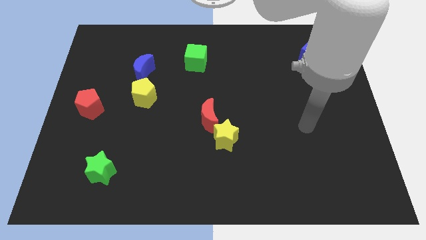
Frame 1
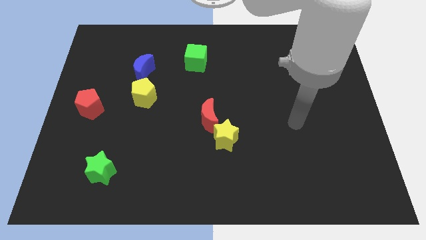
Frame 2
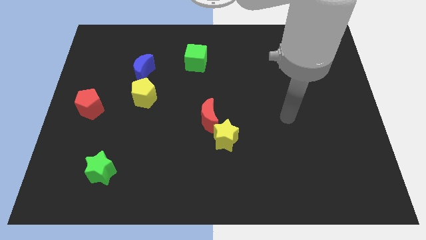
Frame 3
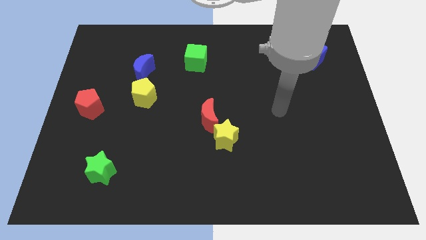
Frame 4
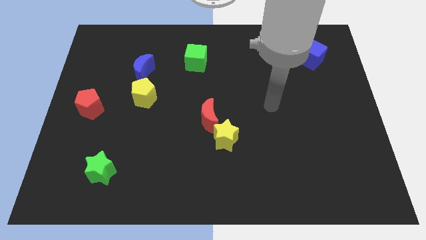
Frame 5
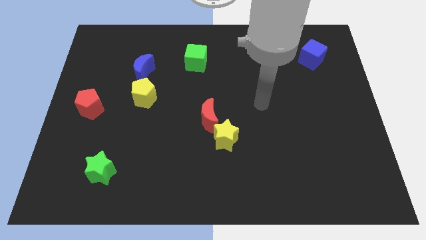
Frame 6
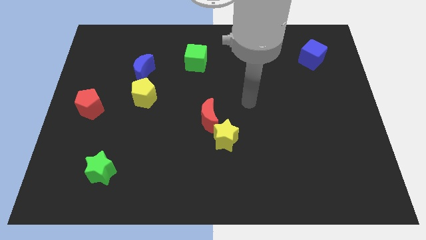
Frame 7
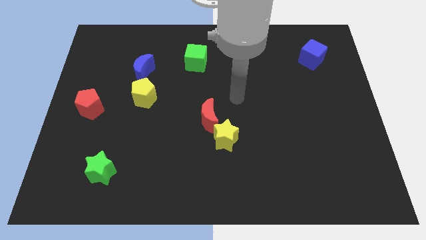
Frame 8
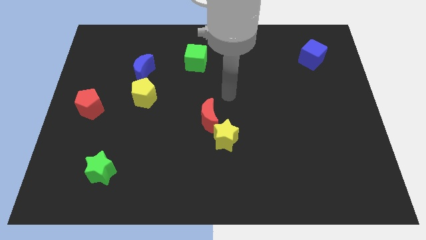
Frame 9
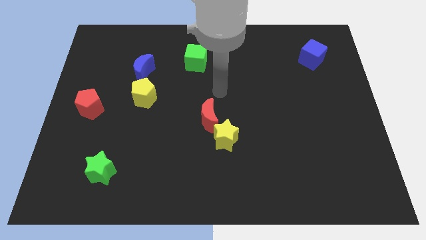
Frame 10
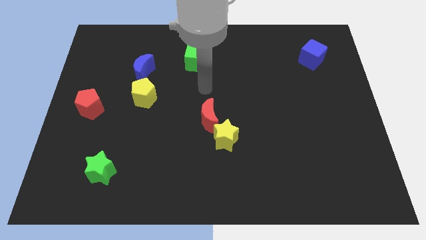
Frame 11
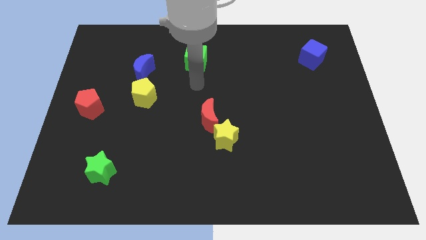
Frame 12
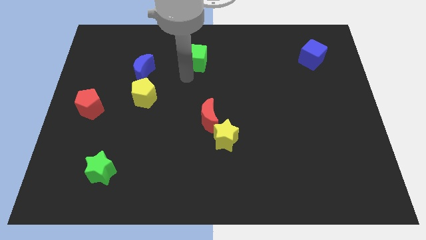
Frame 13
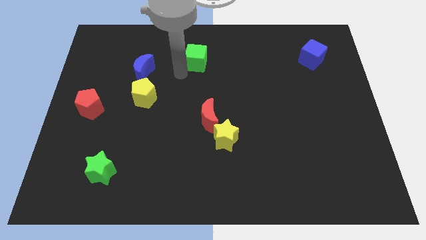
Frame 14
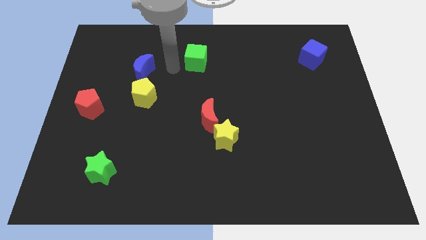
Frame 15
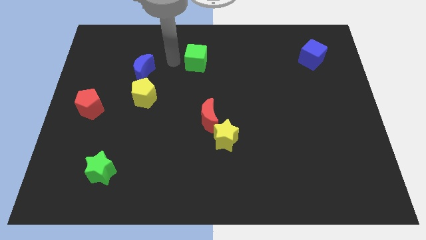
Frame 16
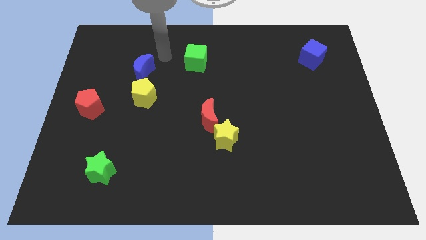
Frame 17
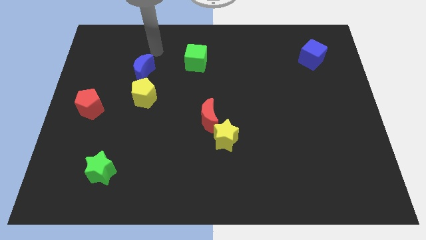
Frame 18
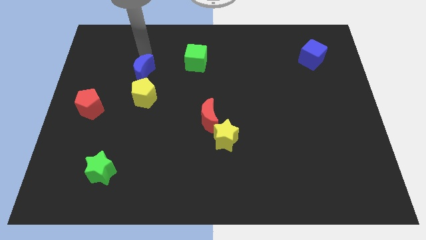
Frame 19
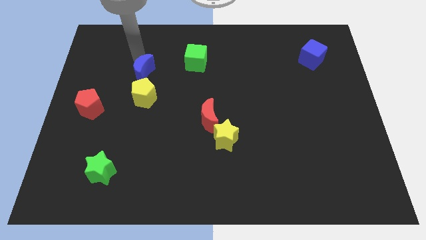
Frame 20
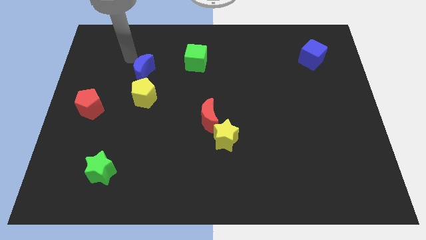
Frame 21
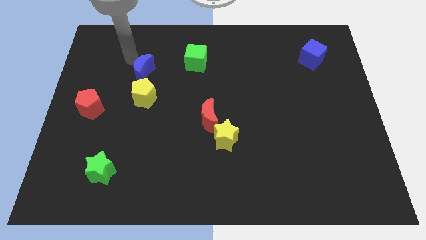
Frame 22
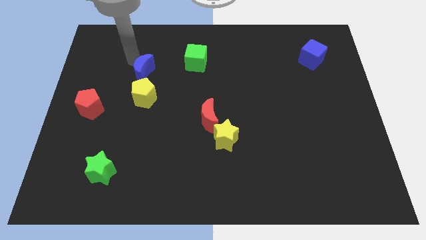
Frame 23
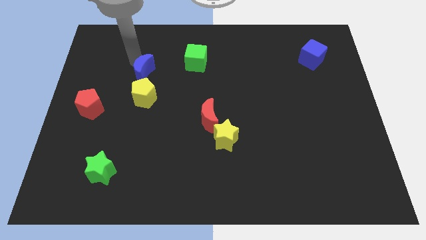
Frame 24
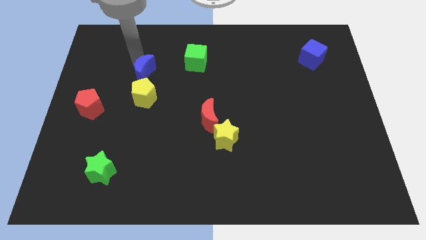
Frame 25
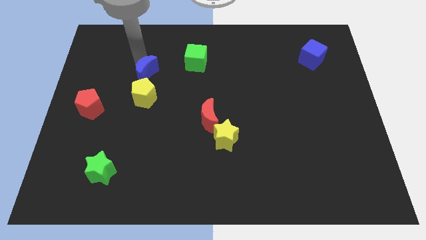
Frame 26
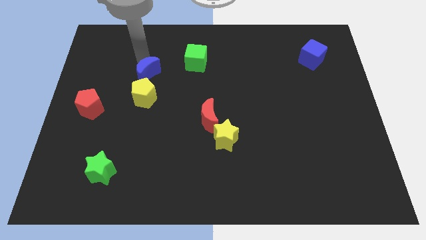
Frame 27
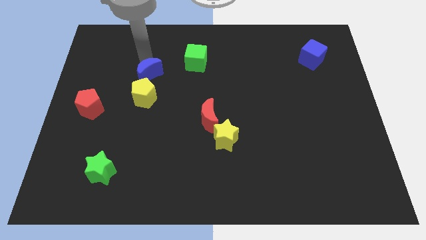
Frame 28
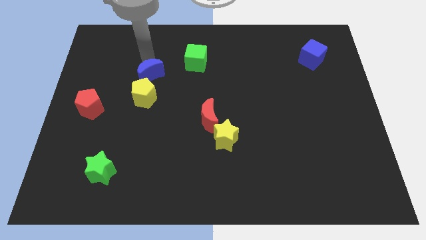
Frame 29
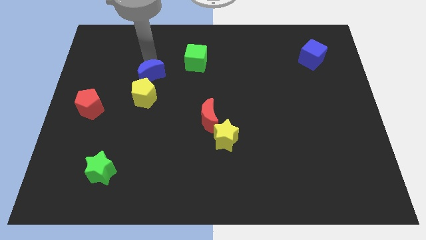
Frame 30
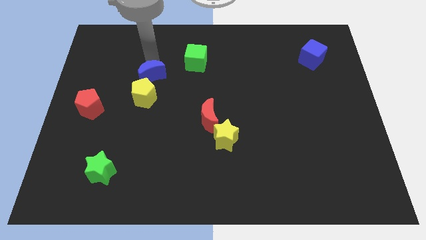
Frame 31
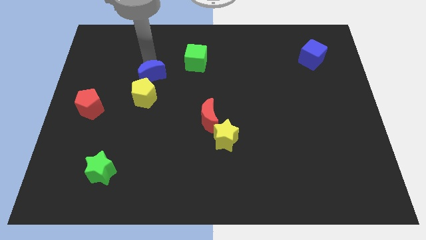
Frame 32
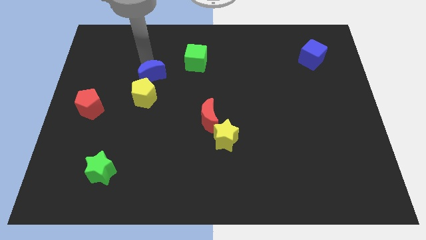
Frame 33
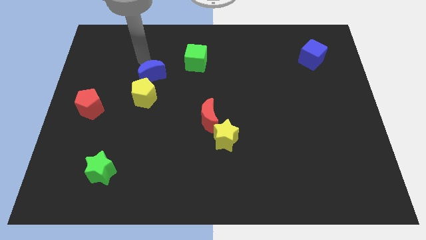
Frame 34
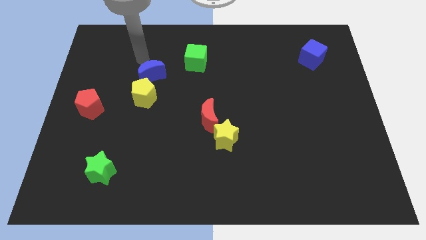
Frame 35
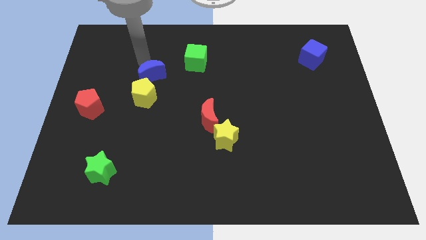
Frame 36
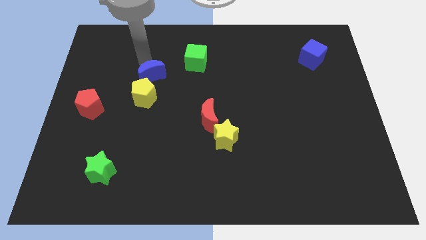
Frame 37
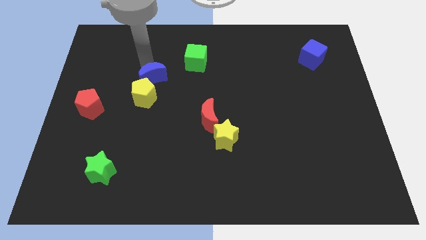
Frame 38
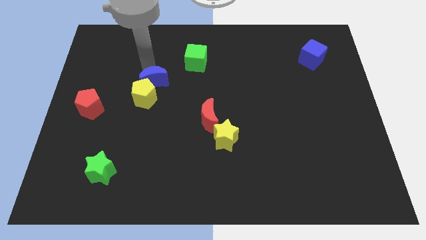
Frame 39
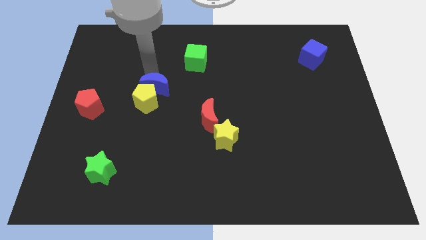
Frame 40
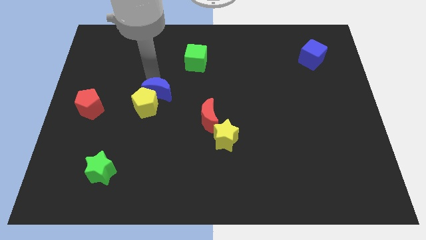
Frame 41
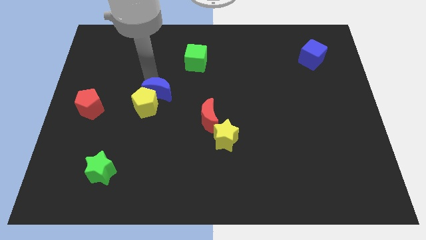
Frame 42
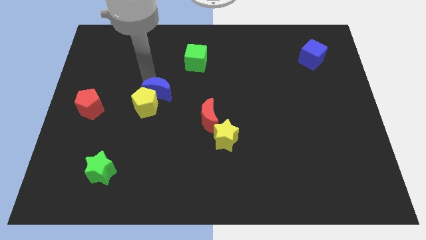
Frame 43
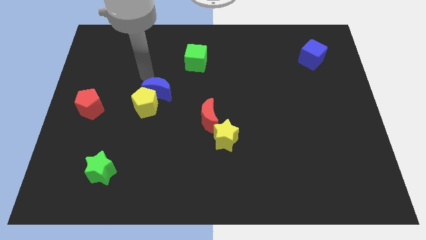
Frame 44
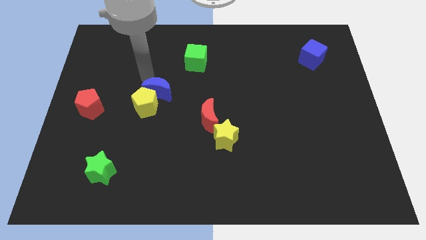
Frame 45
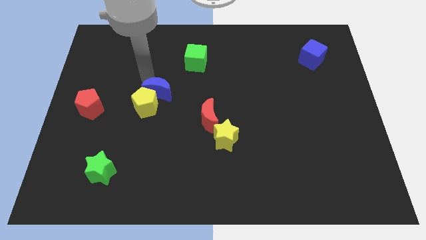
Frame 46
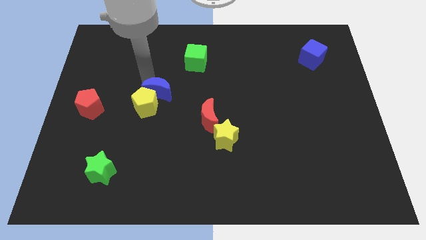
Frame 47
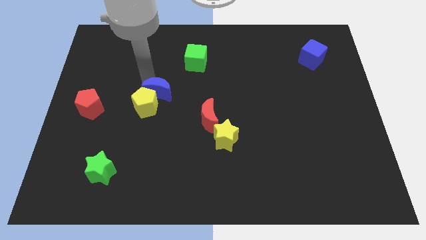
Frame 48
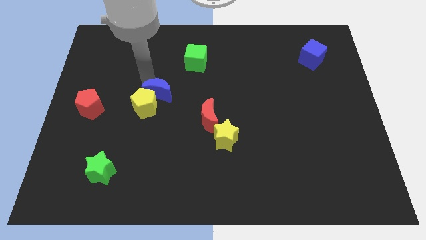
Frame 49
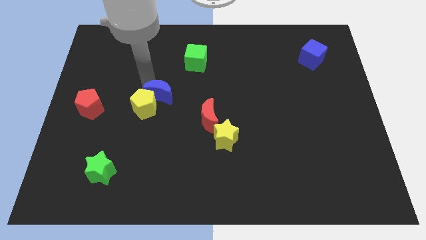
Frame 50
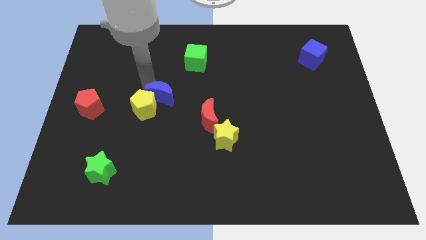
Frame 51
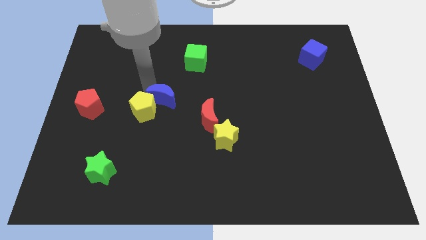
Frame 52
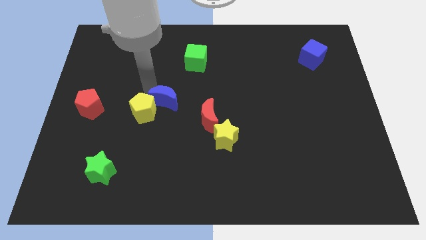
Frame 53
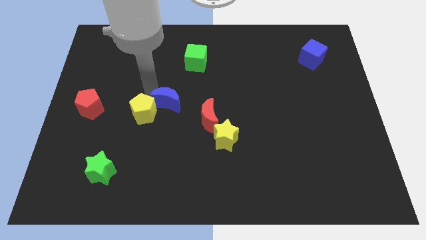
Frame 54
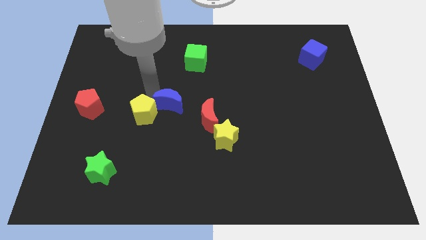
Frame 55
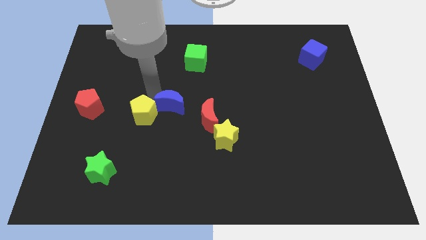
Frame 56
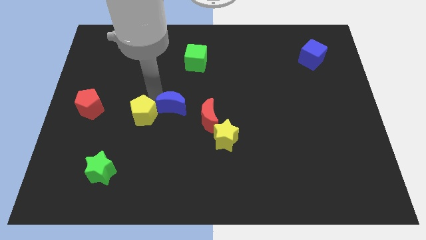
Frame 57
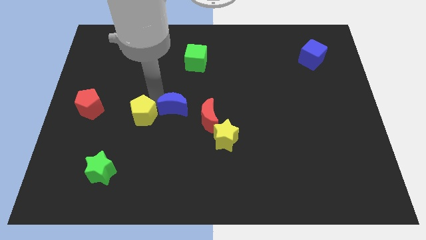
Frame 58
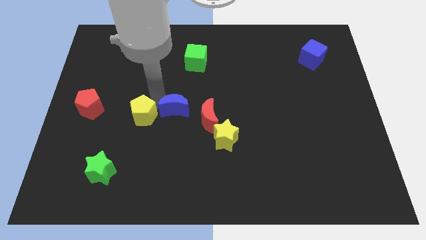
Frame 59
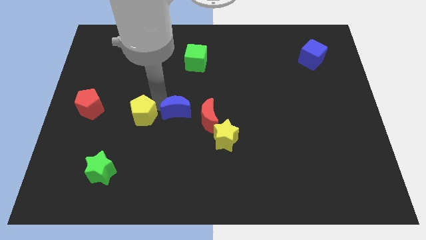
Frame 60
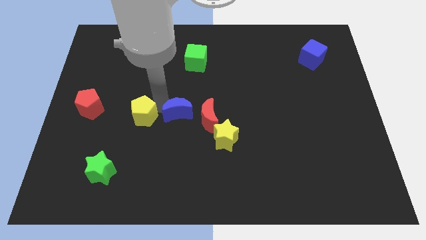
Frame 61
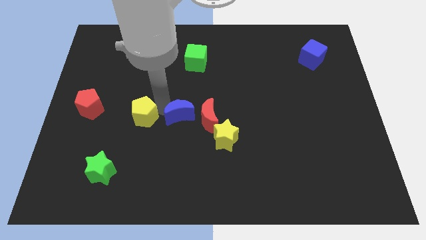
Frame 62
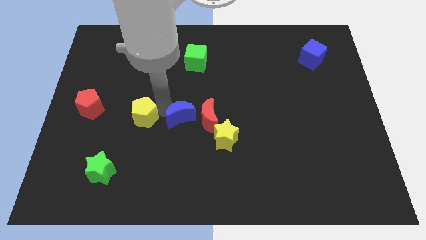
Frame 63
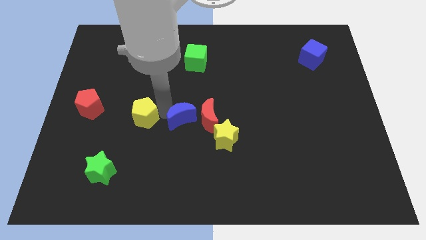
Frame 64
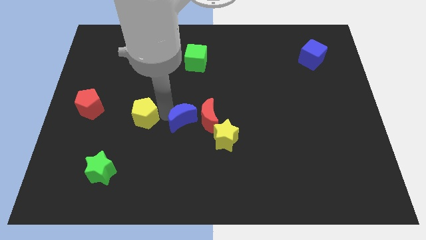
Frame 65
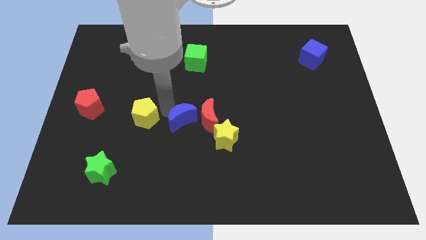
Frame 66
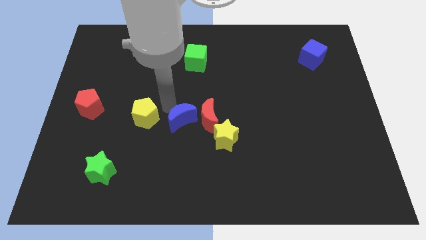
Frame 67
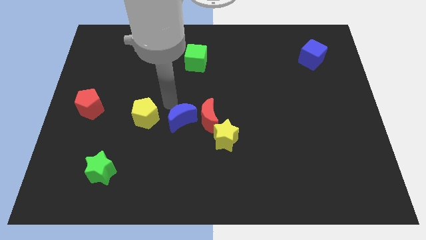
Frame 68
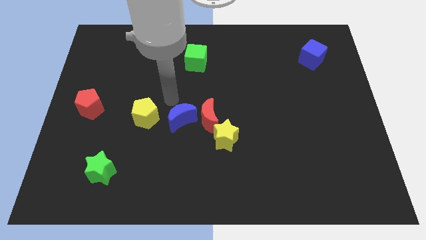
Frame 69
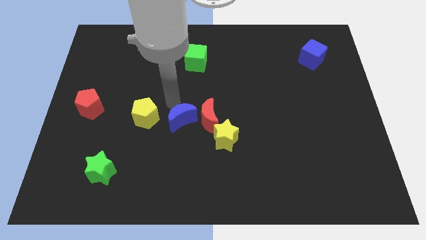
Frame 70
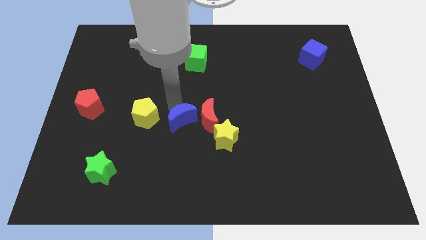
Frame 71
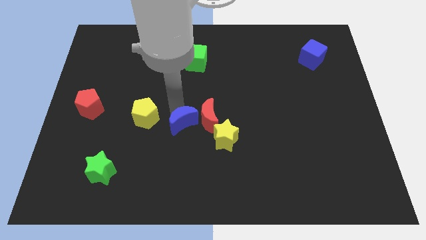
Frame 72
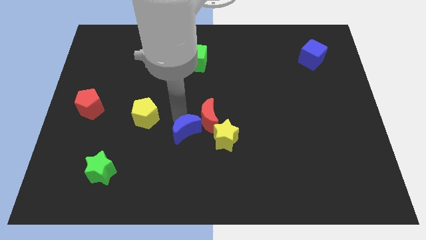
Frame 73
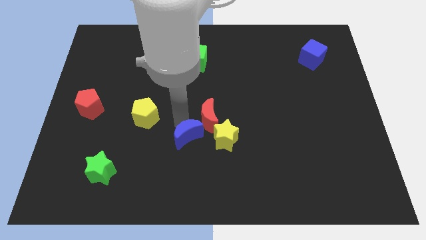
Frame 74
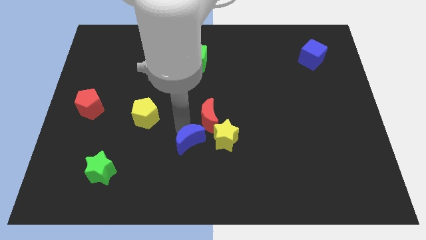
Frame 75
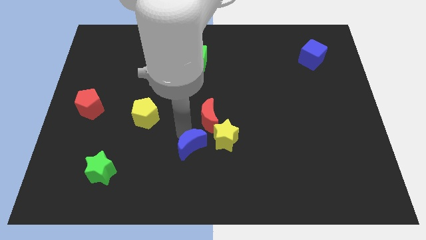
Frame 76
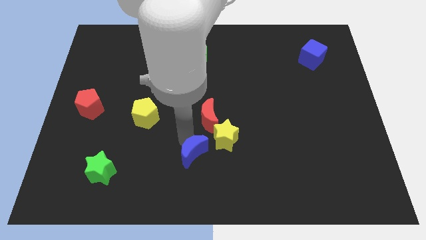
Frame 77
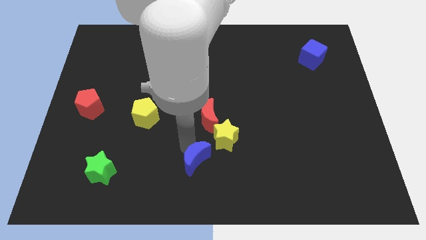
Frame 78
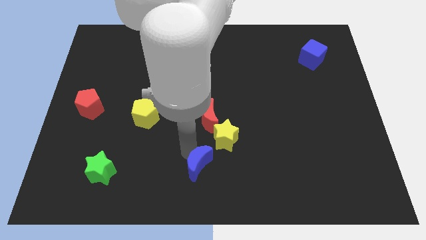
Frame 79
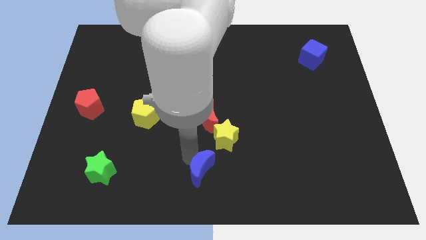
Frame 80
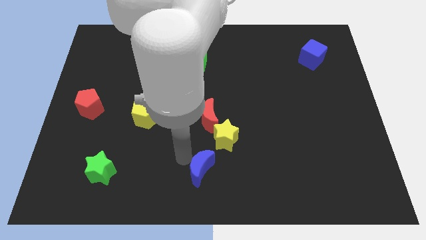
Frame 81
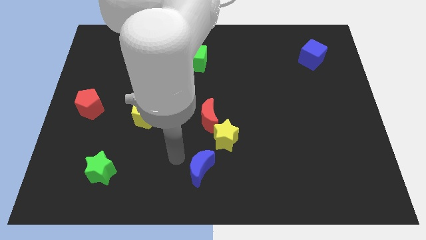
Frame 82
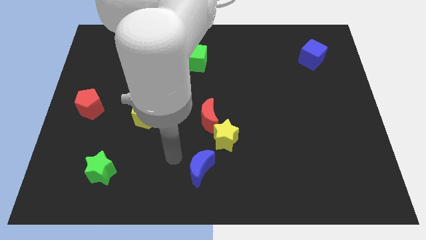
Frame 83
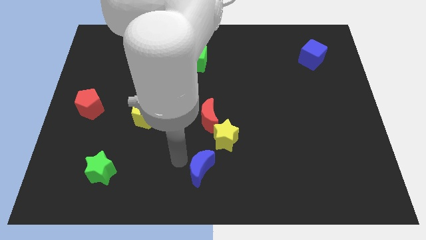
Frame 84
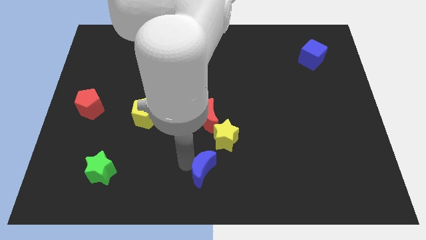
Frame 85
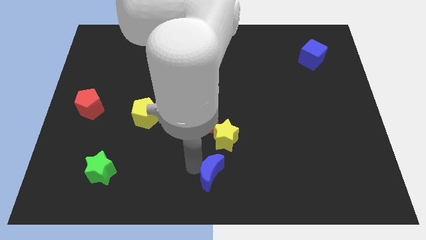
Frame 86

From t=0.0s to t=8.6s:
put the blue moon to the bottom of the yellow star
